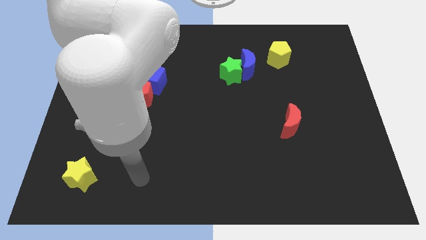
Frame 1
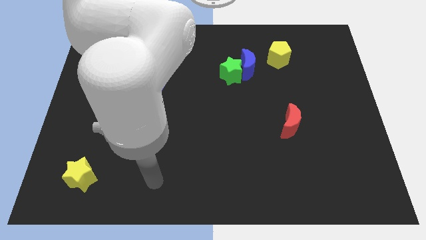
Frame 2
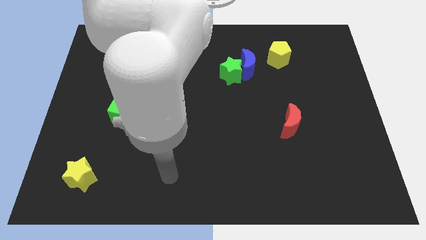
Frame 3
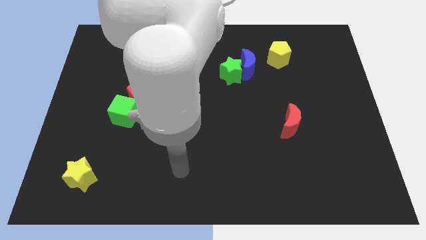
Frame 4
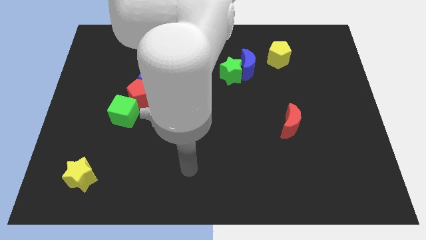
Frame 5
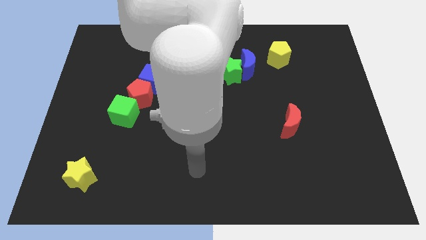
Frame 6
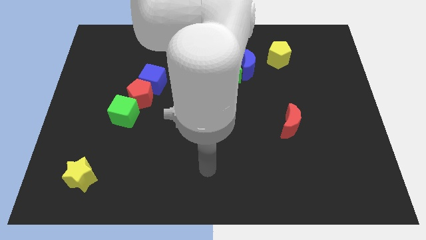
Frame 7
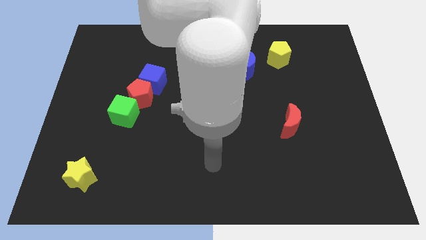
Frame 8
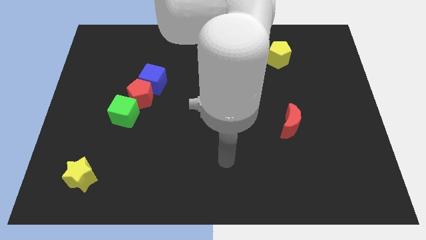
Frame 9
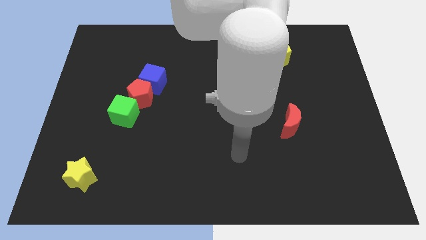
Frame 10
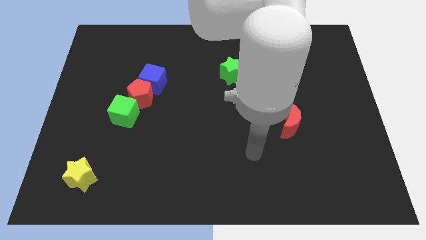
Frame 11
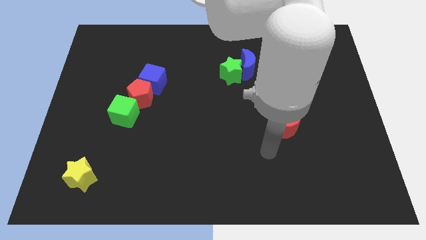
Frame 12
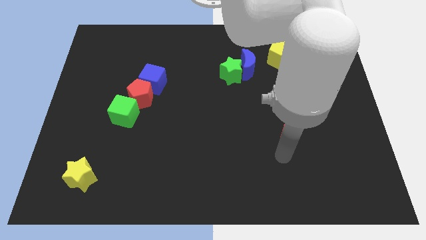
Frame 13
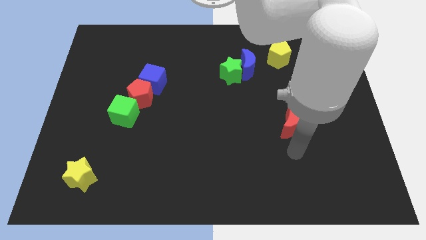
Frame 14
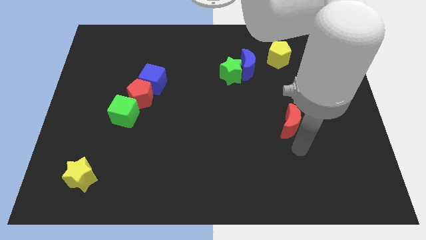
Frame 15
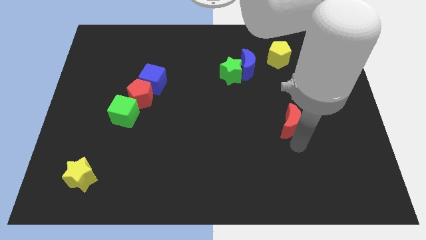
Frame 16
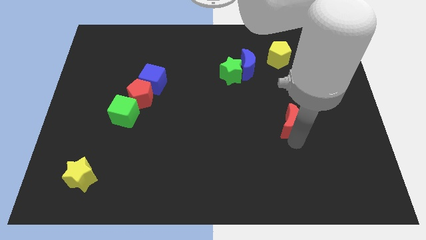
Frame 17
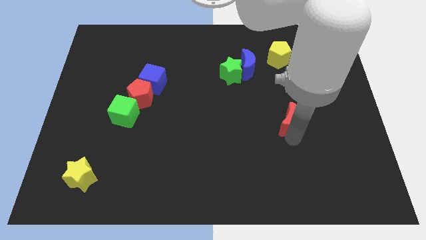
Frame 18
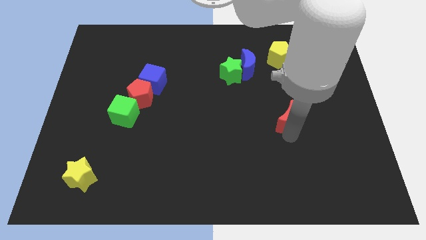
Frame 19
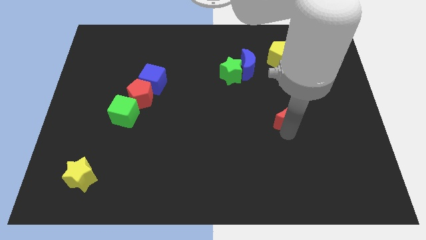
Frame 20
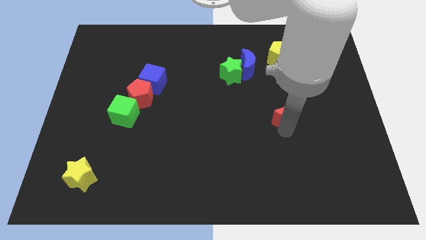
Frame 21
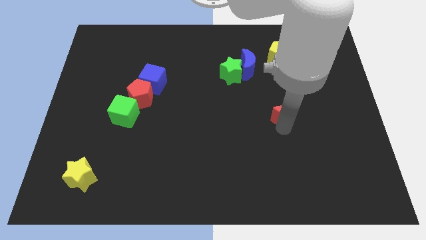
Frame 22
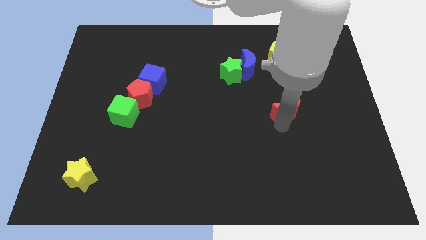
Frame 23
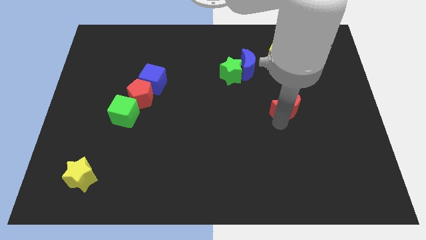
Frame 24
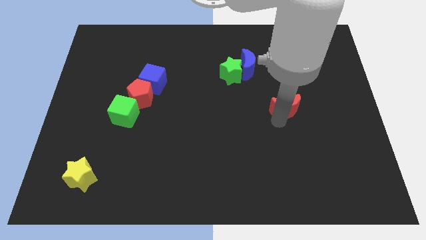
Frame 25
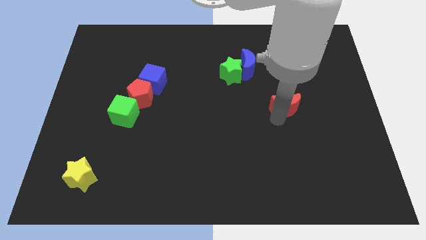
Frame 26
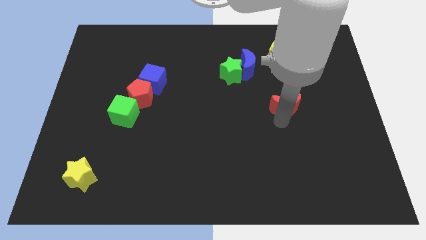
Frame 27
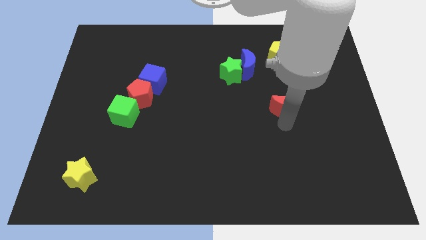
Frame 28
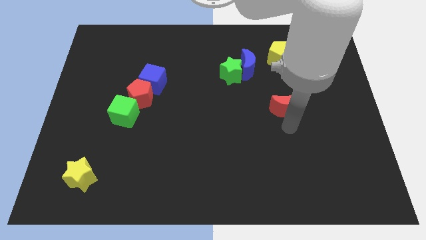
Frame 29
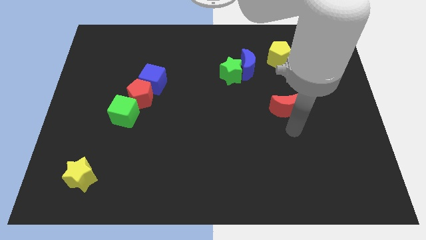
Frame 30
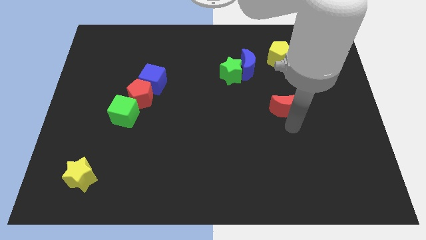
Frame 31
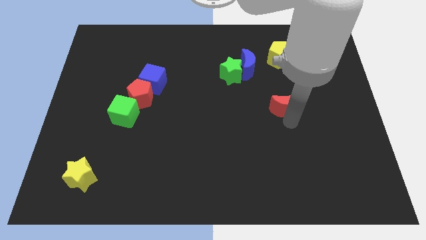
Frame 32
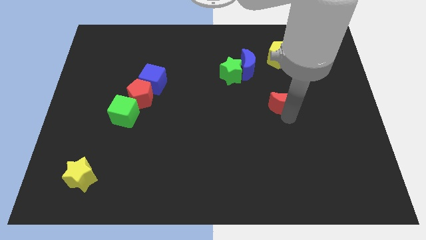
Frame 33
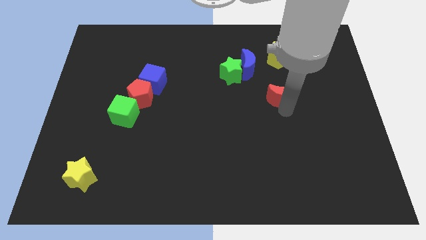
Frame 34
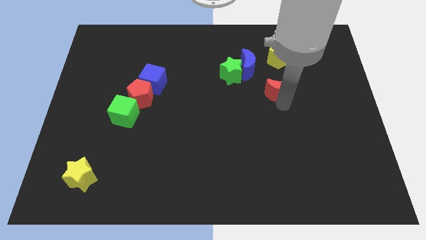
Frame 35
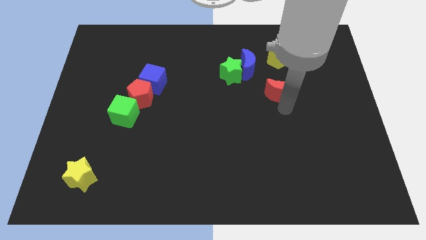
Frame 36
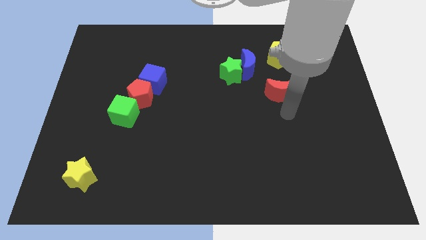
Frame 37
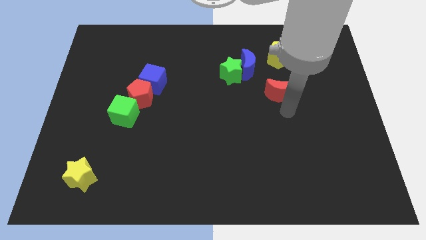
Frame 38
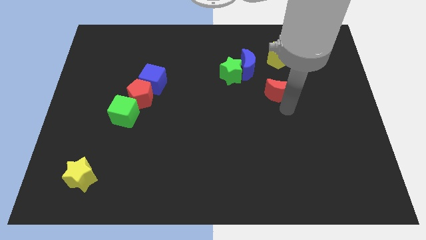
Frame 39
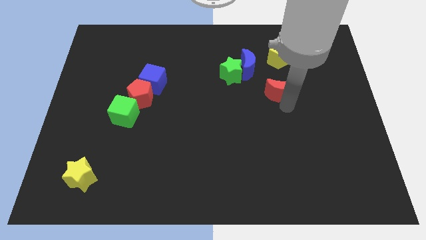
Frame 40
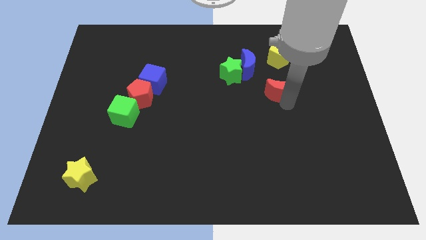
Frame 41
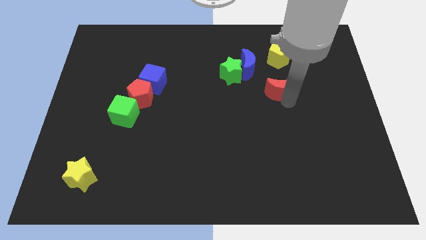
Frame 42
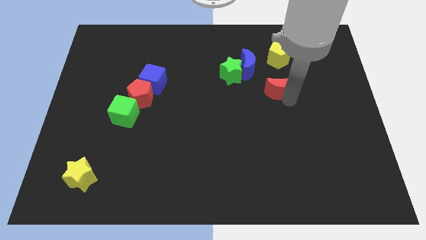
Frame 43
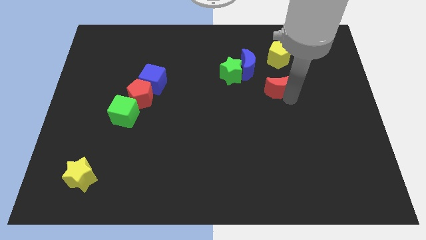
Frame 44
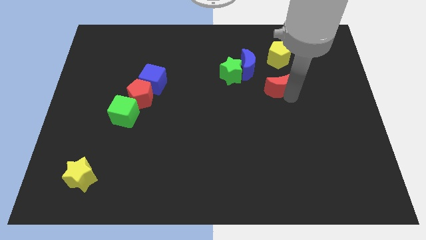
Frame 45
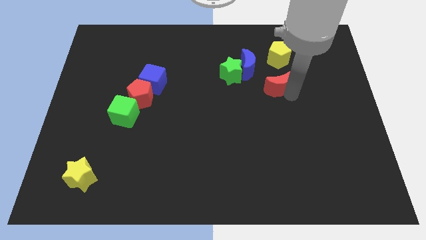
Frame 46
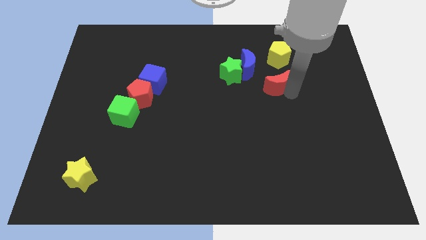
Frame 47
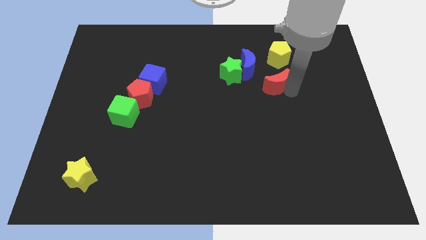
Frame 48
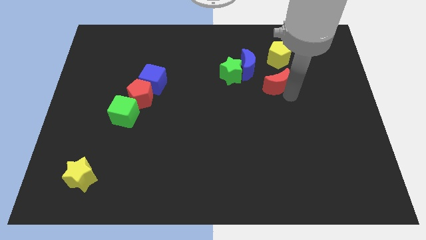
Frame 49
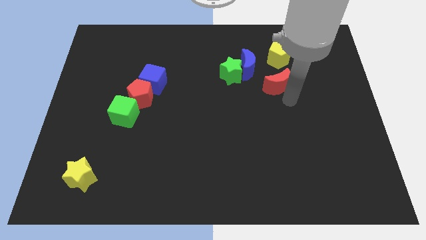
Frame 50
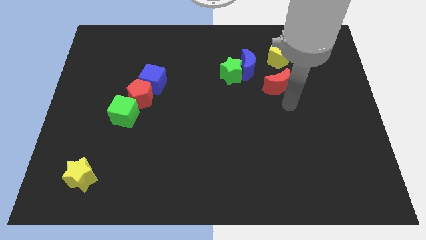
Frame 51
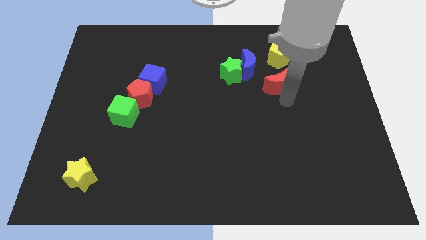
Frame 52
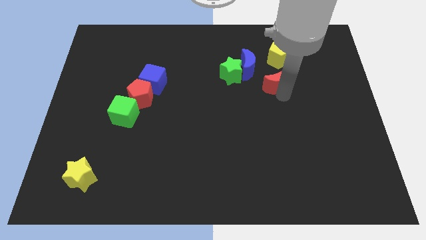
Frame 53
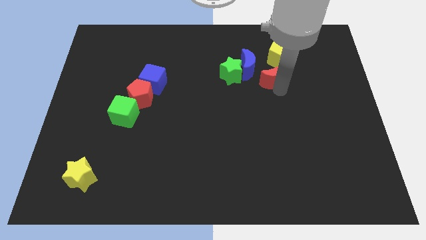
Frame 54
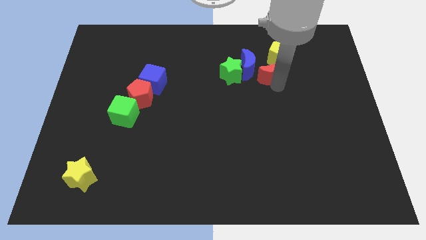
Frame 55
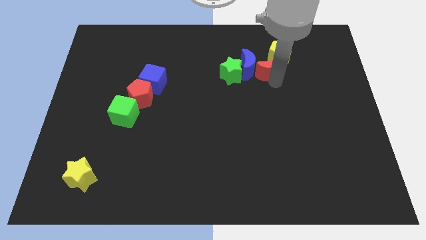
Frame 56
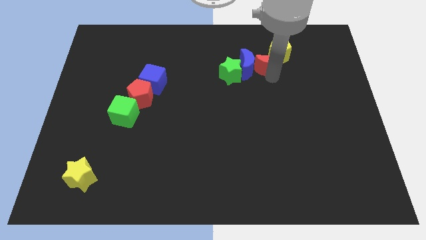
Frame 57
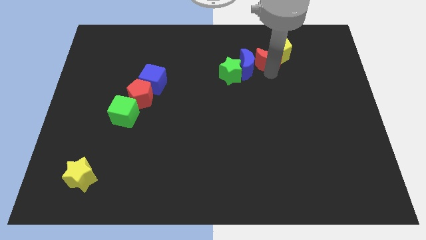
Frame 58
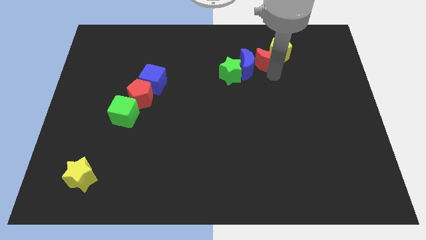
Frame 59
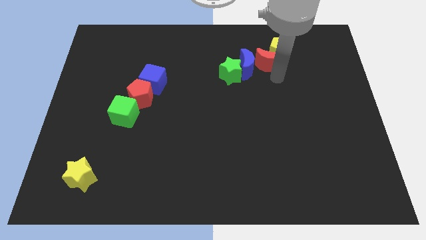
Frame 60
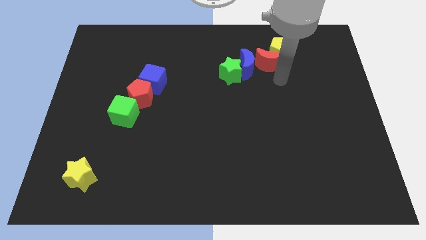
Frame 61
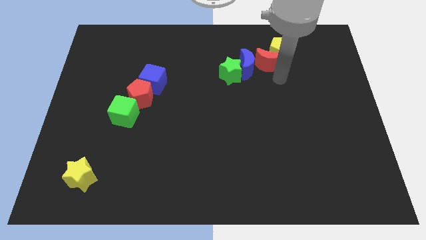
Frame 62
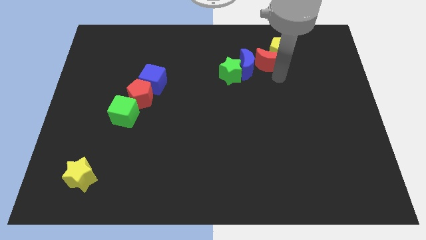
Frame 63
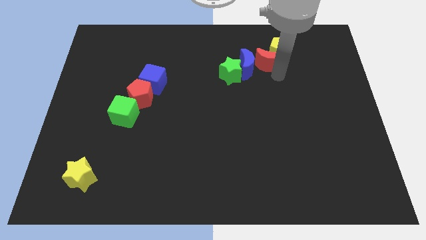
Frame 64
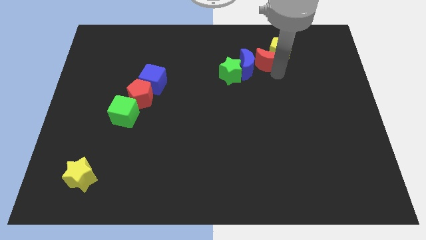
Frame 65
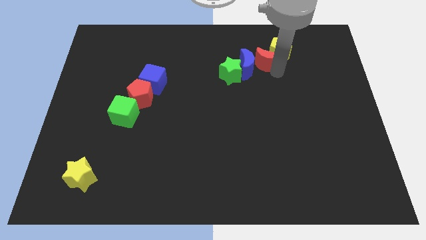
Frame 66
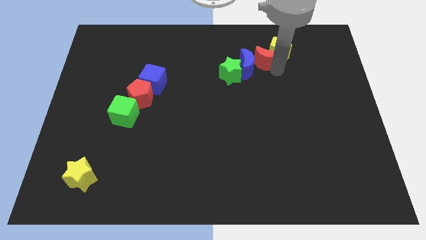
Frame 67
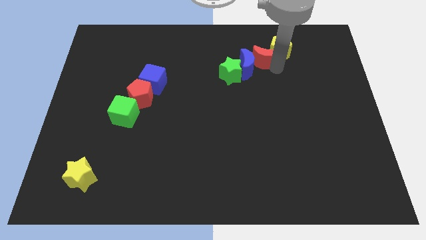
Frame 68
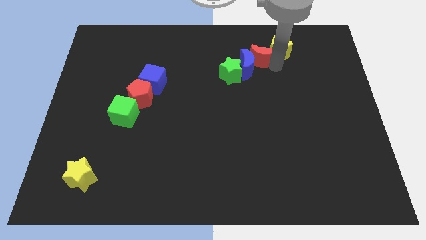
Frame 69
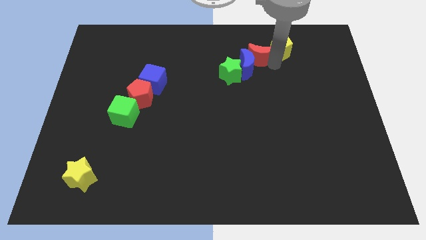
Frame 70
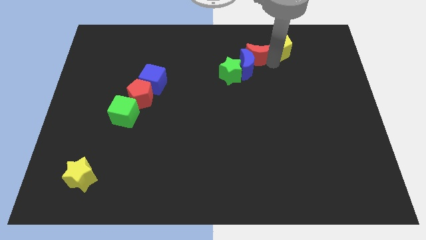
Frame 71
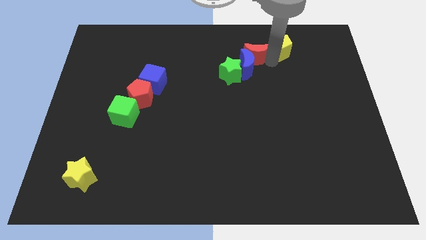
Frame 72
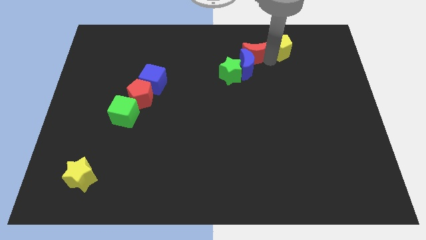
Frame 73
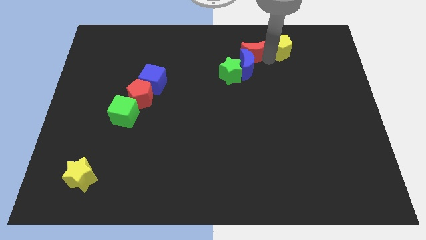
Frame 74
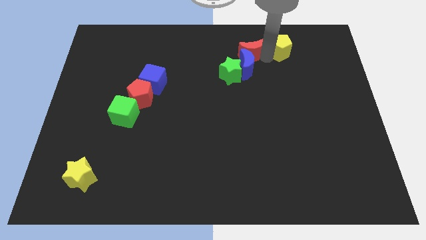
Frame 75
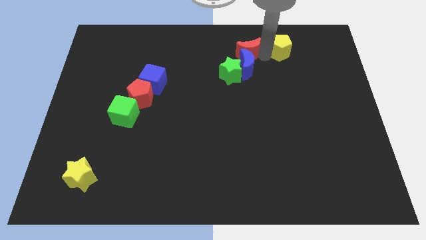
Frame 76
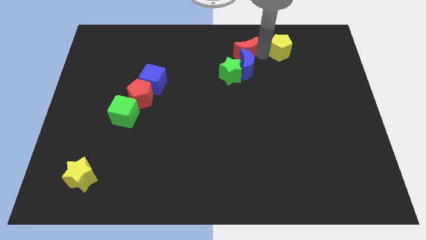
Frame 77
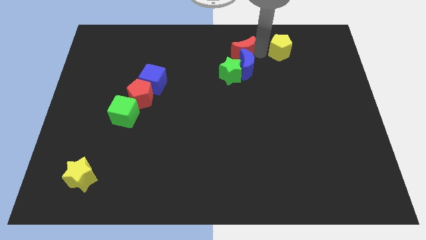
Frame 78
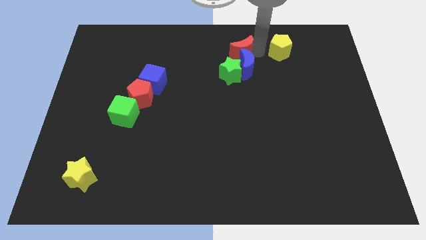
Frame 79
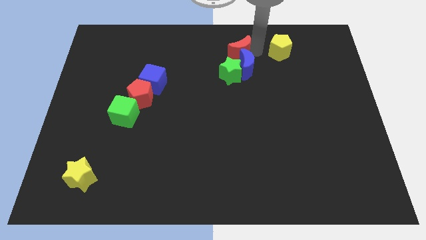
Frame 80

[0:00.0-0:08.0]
push the red moon to the towards your base
